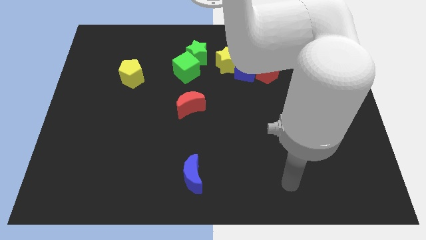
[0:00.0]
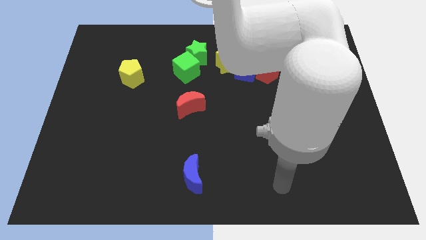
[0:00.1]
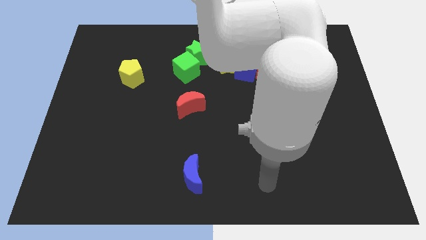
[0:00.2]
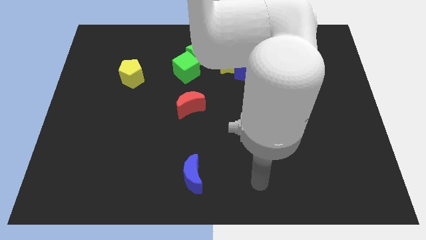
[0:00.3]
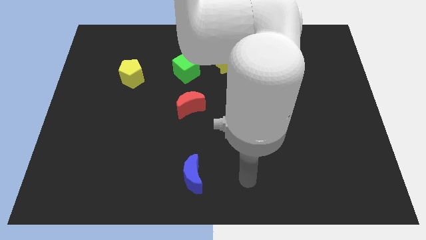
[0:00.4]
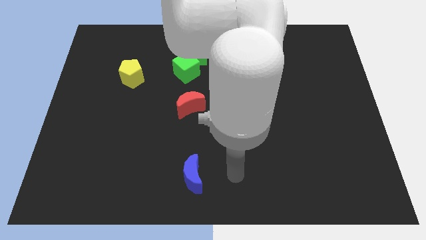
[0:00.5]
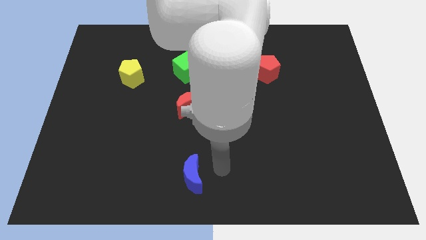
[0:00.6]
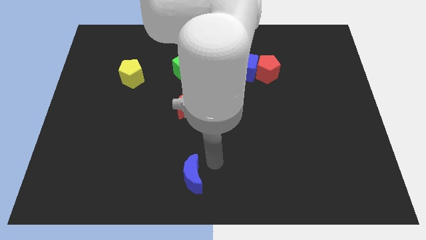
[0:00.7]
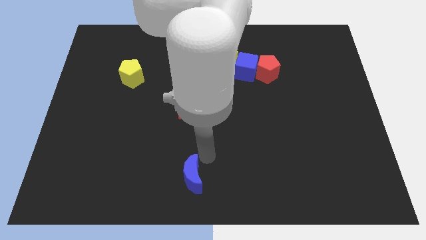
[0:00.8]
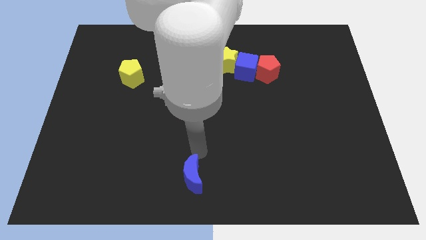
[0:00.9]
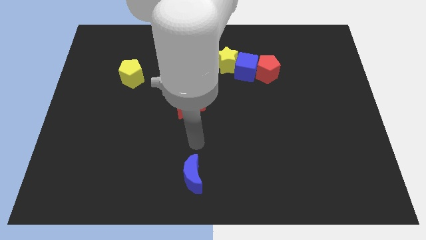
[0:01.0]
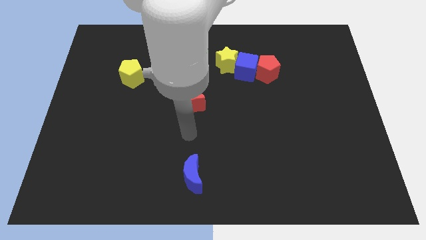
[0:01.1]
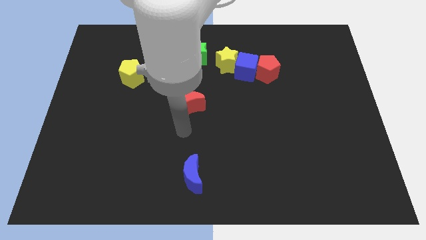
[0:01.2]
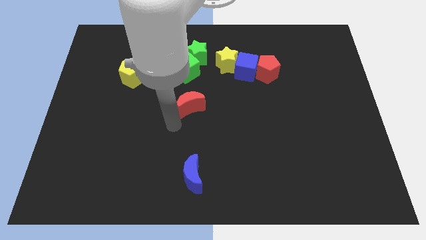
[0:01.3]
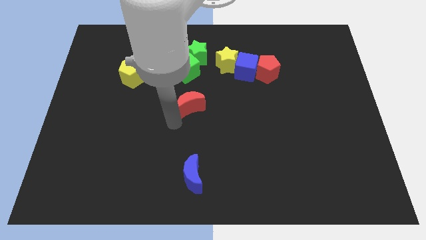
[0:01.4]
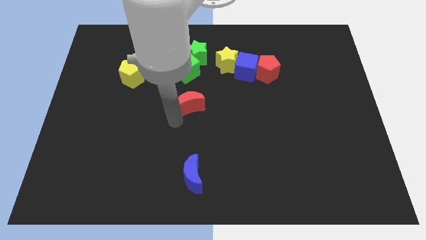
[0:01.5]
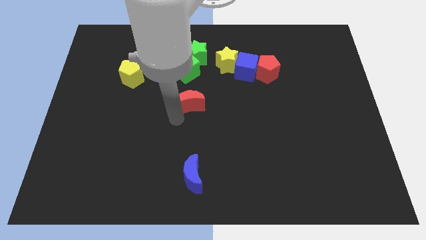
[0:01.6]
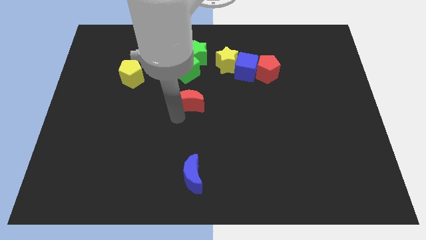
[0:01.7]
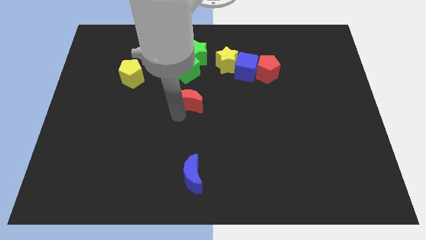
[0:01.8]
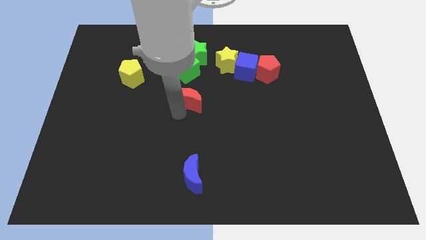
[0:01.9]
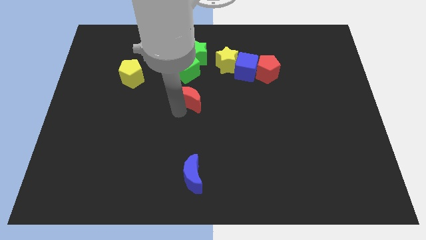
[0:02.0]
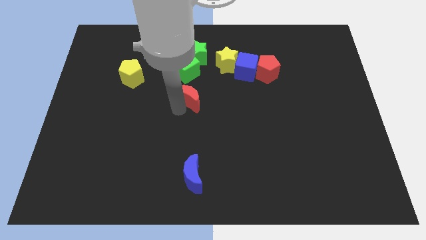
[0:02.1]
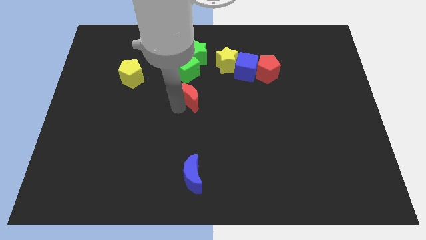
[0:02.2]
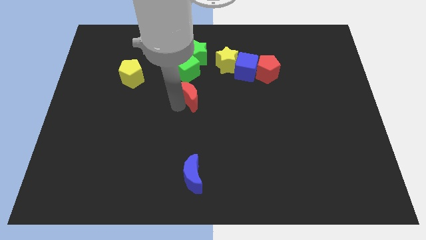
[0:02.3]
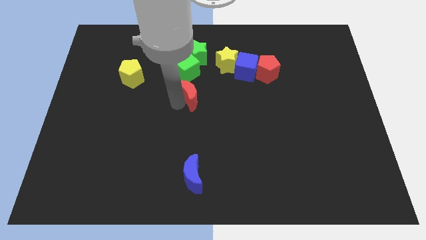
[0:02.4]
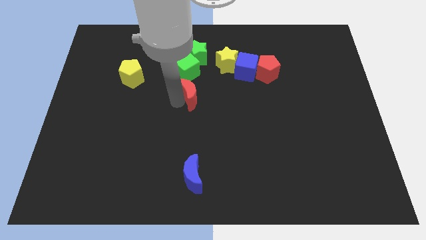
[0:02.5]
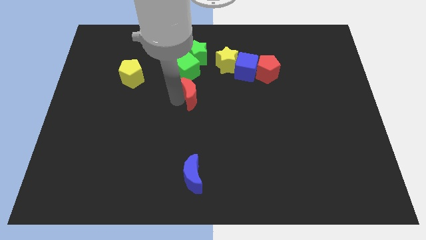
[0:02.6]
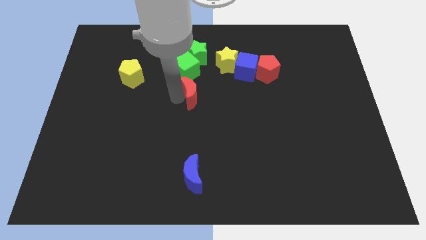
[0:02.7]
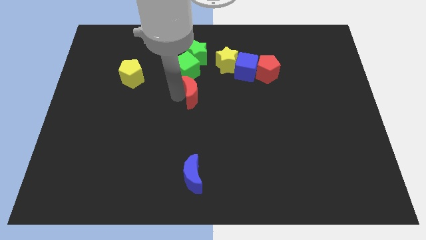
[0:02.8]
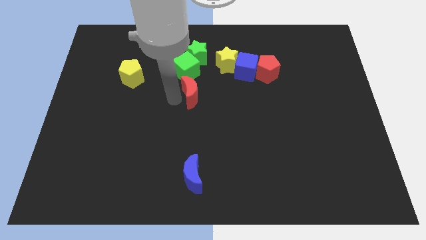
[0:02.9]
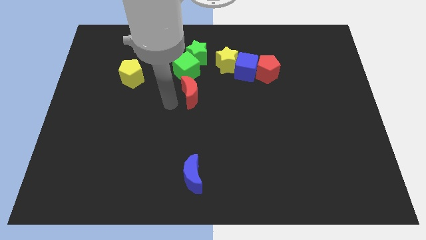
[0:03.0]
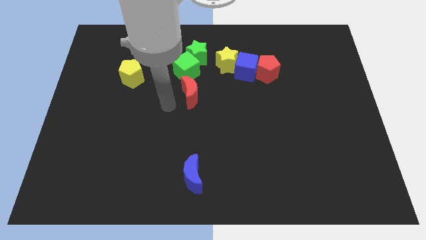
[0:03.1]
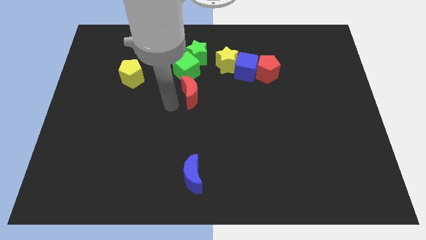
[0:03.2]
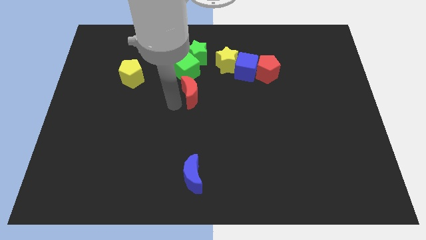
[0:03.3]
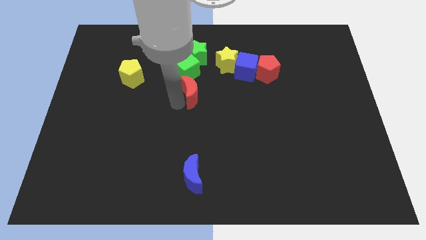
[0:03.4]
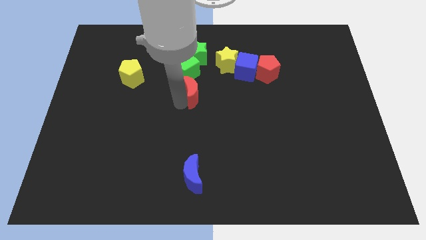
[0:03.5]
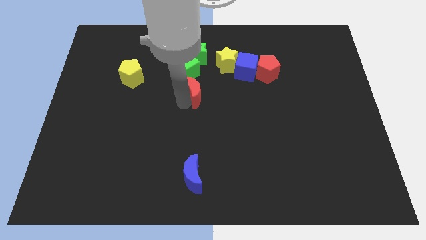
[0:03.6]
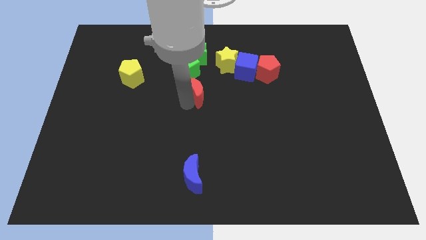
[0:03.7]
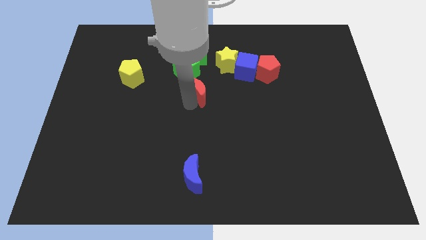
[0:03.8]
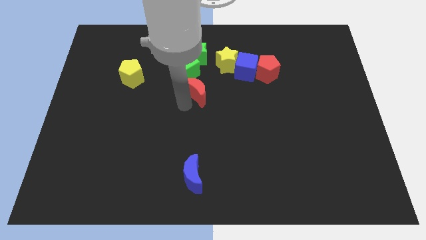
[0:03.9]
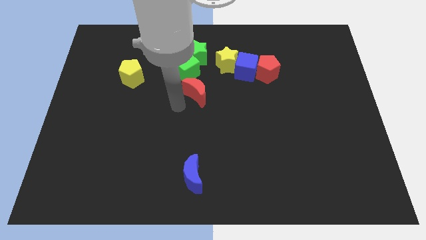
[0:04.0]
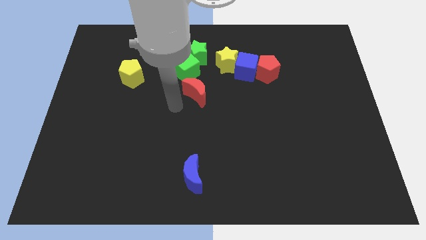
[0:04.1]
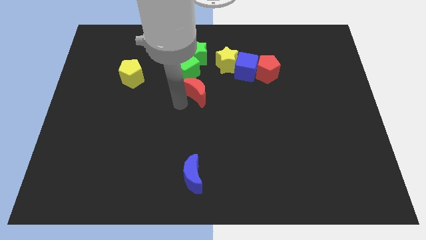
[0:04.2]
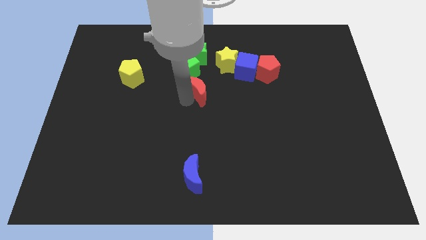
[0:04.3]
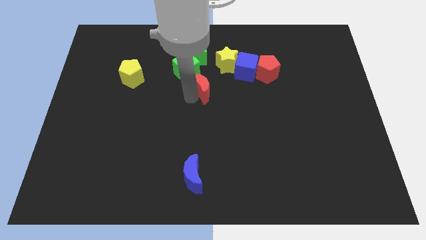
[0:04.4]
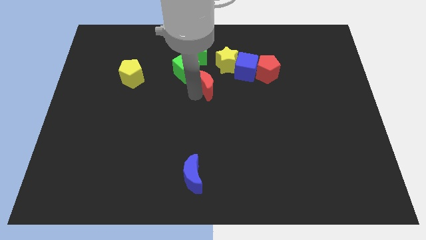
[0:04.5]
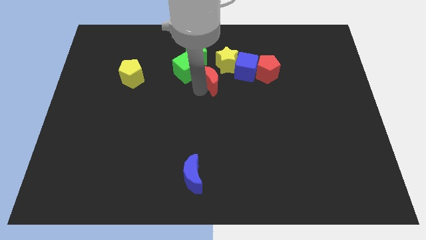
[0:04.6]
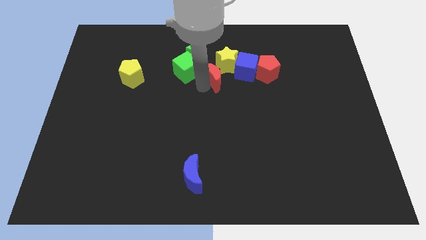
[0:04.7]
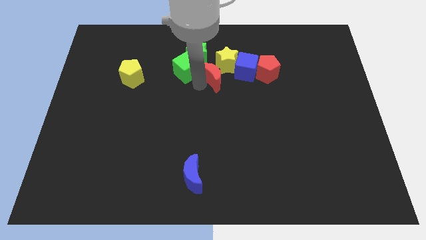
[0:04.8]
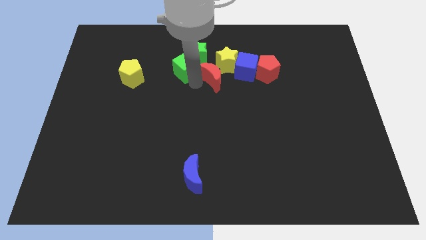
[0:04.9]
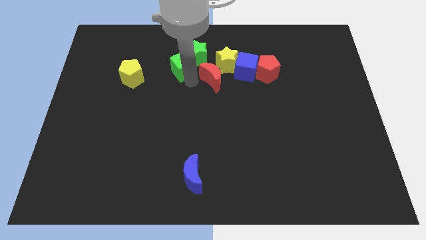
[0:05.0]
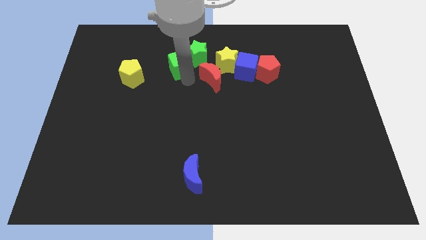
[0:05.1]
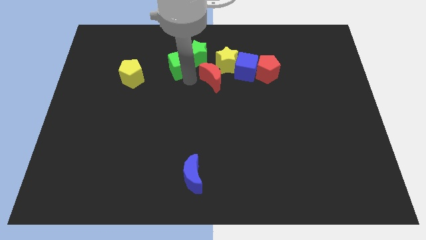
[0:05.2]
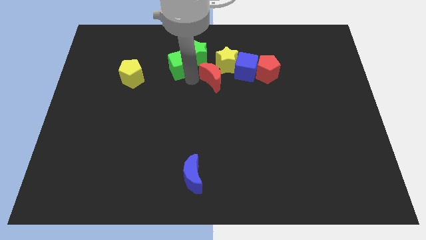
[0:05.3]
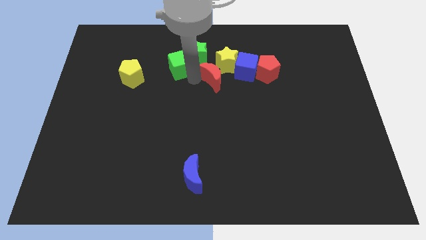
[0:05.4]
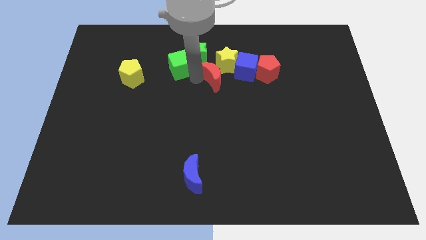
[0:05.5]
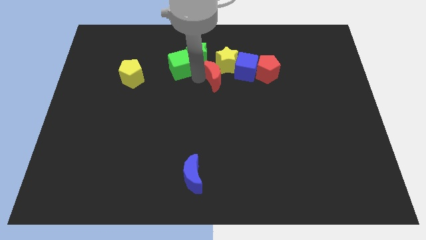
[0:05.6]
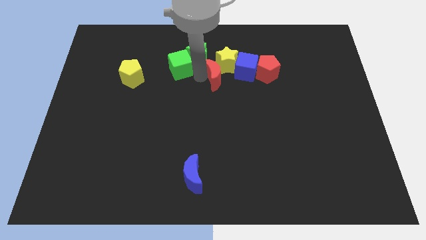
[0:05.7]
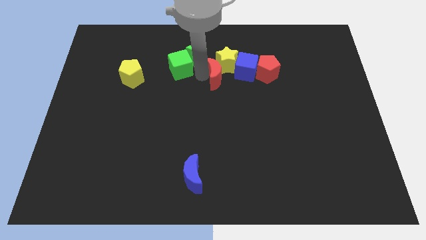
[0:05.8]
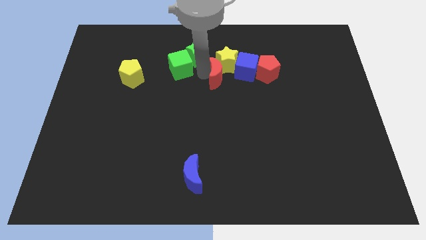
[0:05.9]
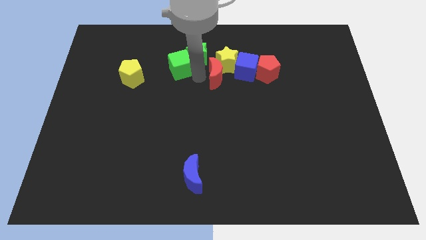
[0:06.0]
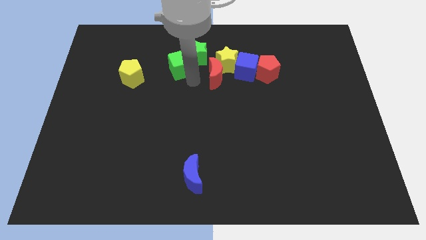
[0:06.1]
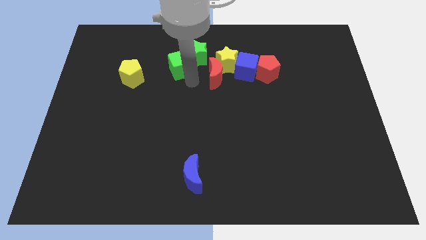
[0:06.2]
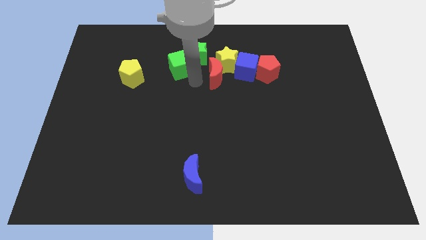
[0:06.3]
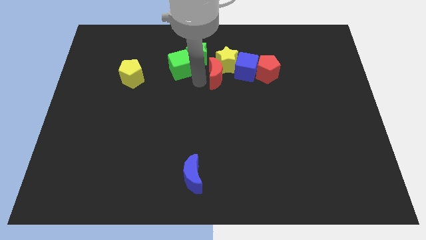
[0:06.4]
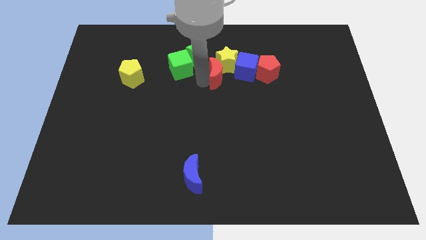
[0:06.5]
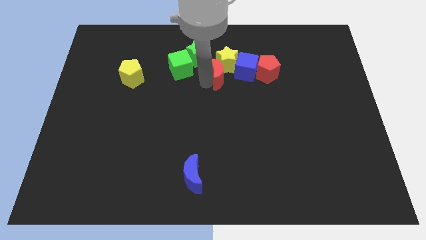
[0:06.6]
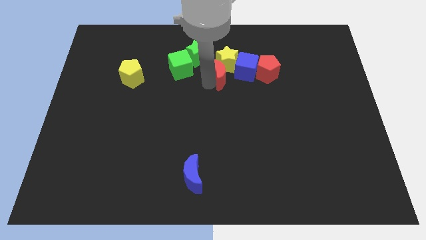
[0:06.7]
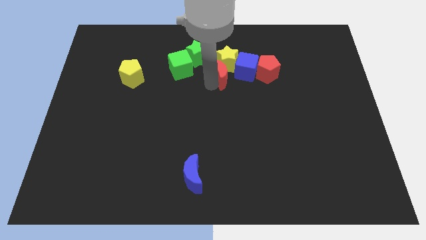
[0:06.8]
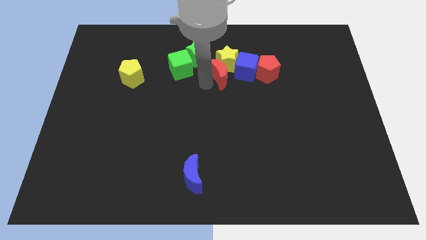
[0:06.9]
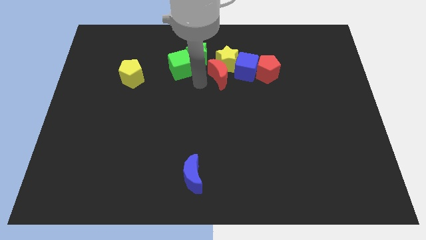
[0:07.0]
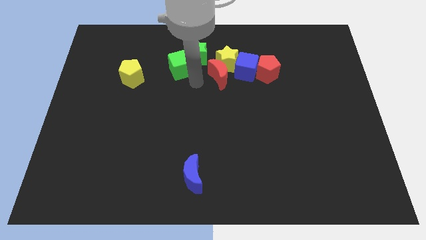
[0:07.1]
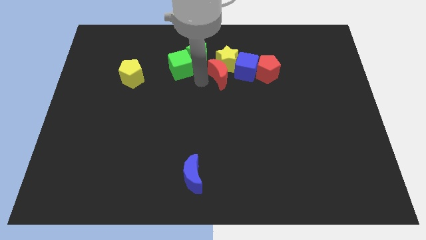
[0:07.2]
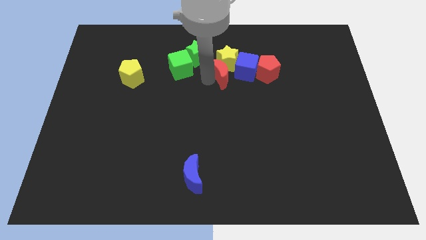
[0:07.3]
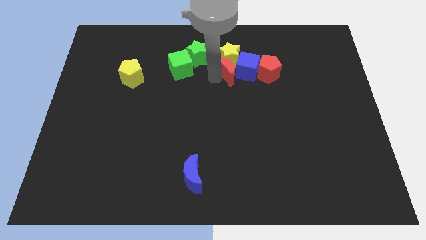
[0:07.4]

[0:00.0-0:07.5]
slide the red moon to the blue cube
